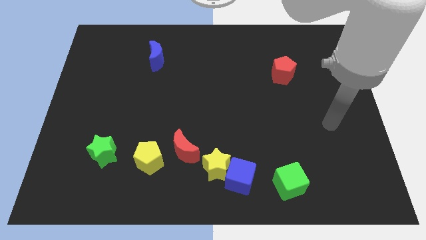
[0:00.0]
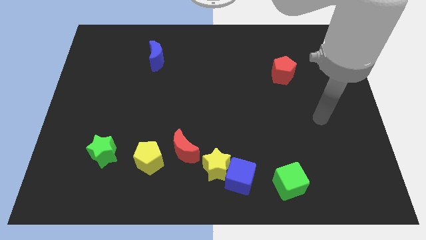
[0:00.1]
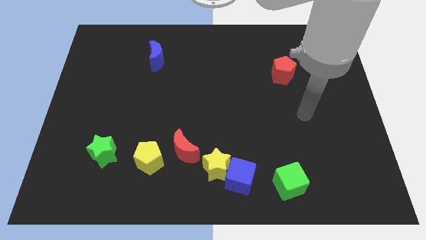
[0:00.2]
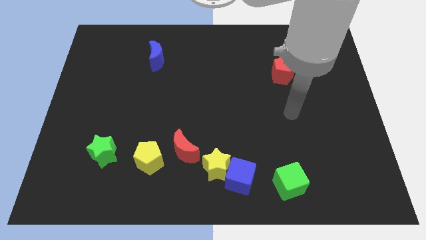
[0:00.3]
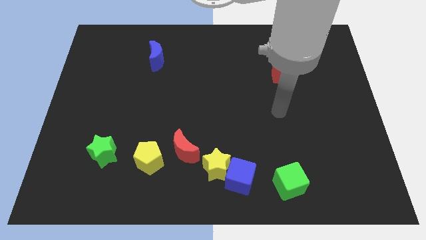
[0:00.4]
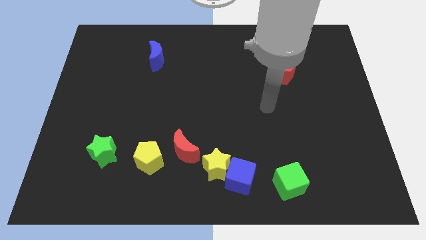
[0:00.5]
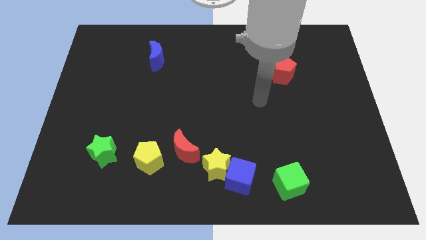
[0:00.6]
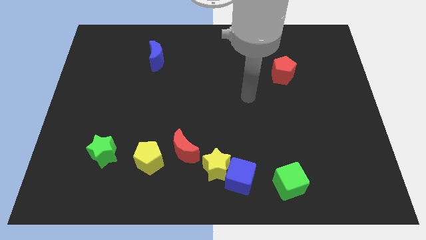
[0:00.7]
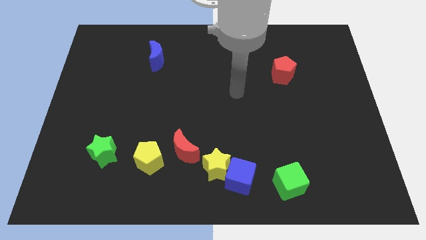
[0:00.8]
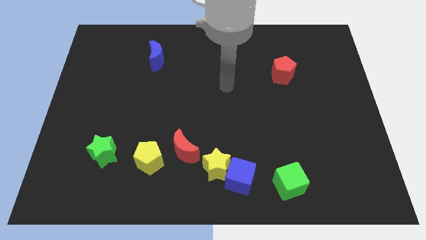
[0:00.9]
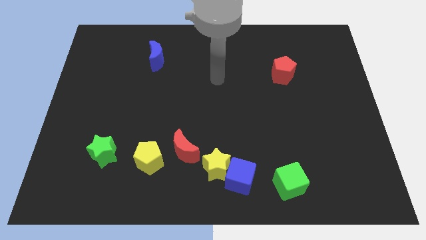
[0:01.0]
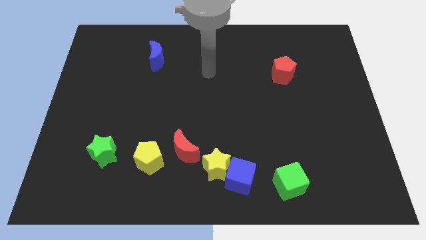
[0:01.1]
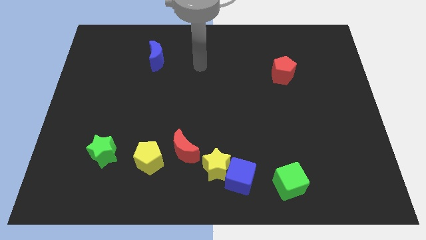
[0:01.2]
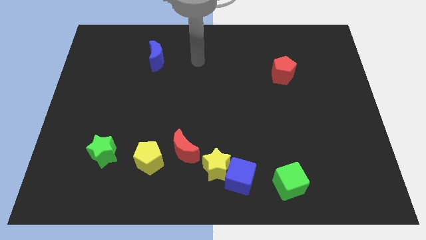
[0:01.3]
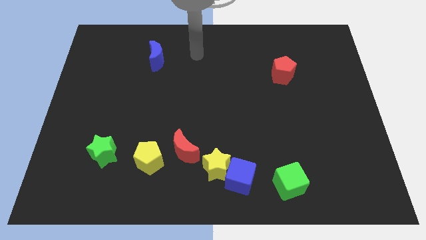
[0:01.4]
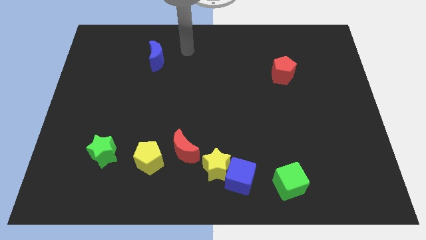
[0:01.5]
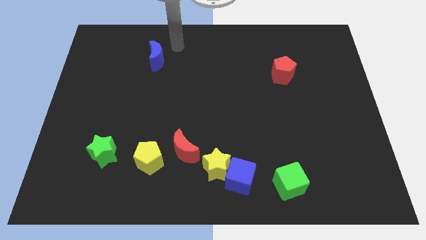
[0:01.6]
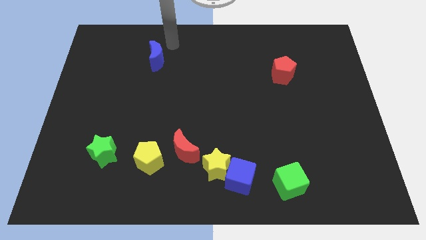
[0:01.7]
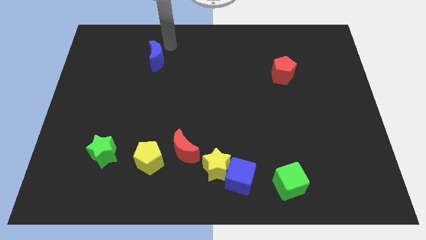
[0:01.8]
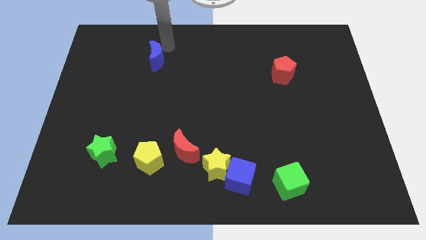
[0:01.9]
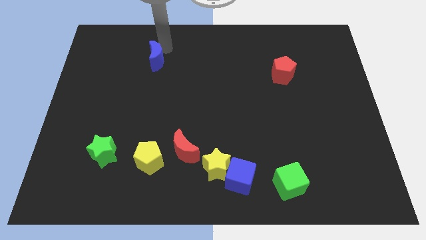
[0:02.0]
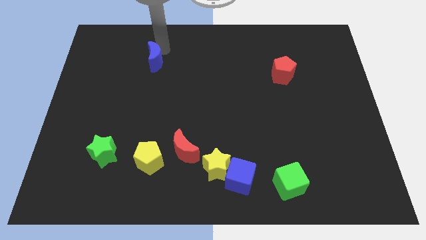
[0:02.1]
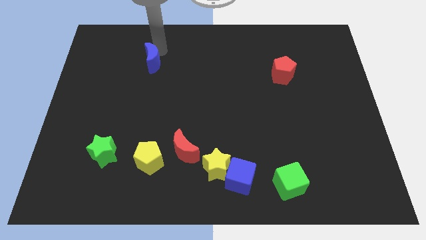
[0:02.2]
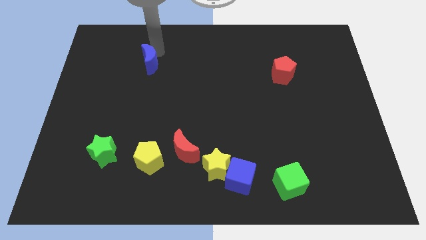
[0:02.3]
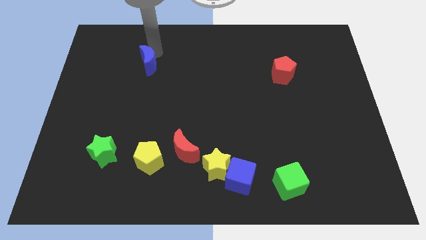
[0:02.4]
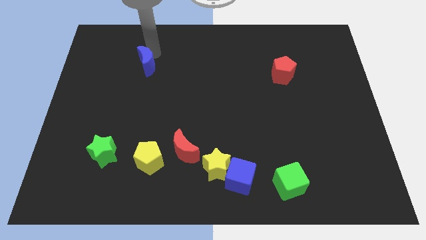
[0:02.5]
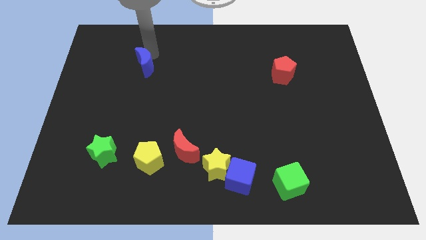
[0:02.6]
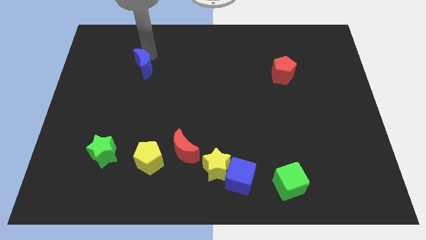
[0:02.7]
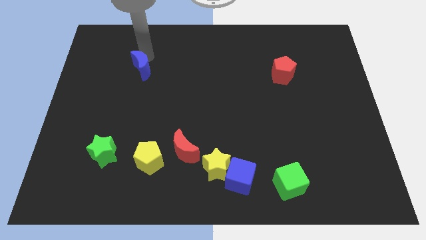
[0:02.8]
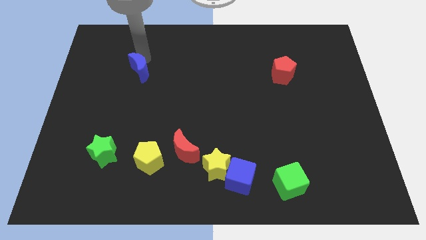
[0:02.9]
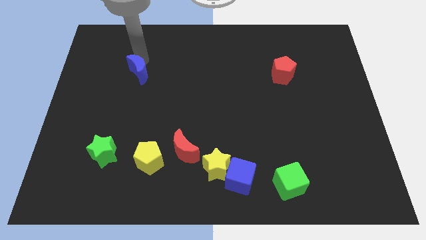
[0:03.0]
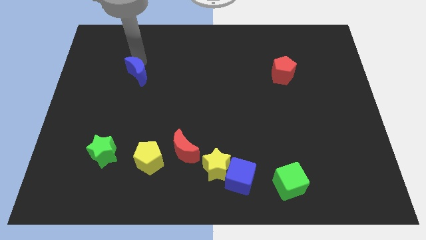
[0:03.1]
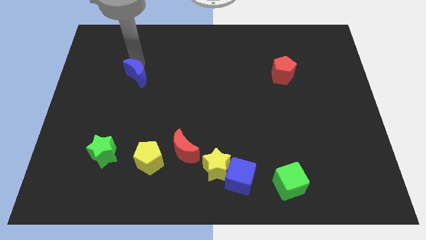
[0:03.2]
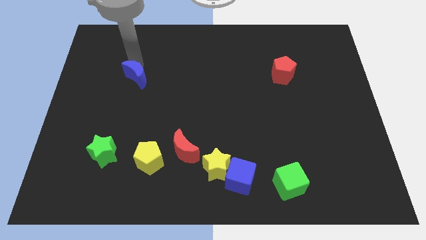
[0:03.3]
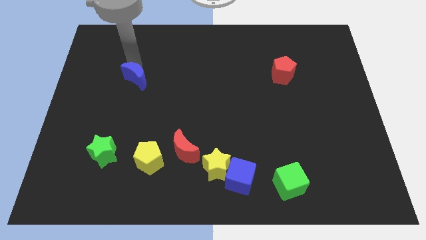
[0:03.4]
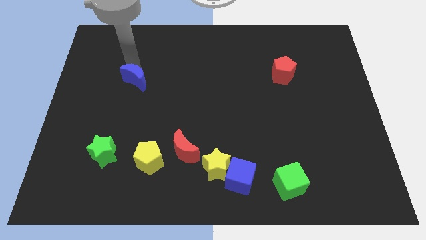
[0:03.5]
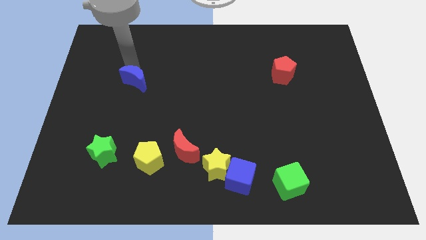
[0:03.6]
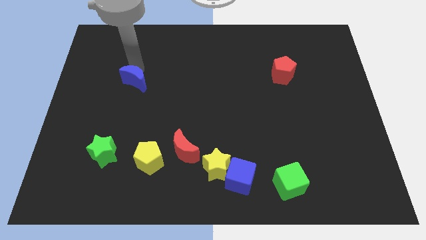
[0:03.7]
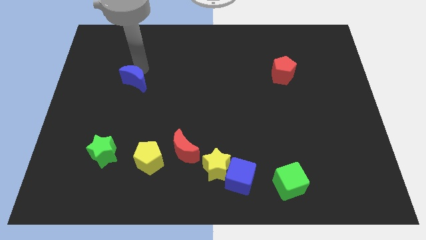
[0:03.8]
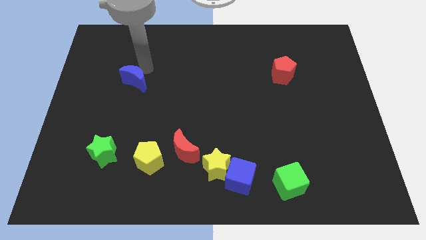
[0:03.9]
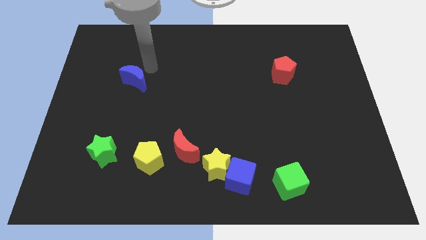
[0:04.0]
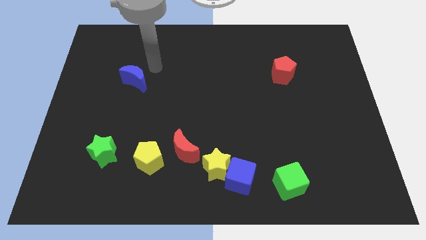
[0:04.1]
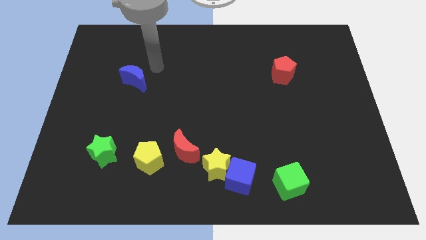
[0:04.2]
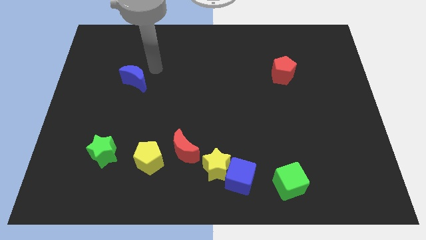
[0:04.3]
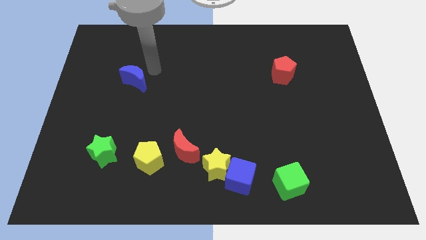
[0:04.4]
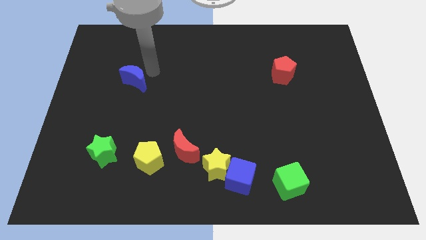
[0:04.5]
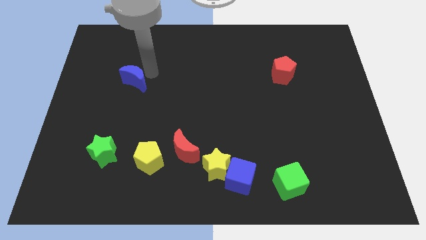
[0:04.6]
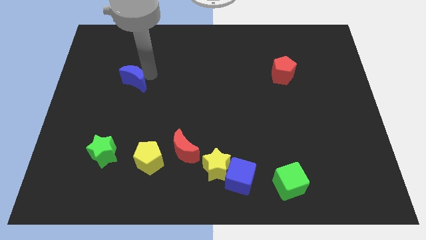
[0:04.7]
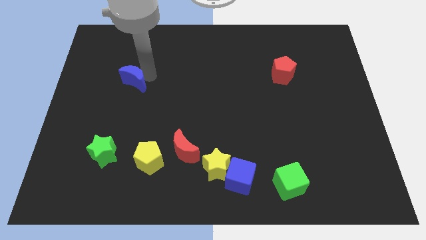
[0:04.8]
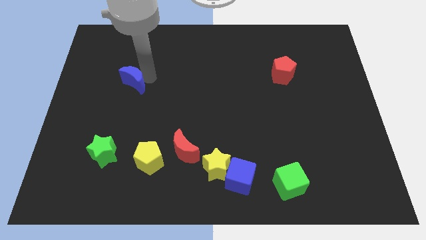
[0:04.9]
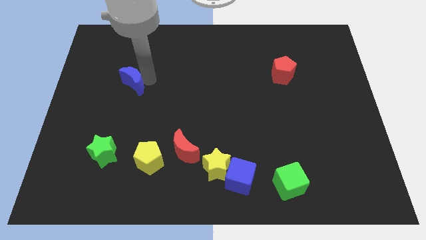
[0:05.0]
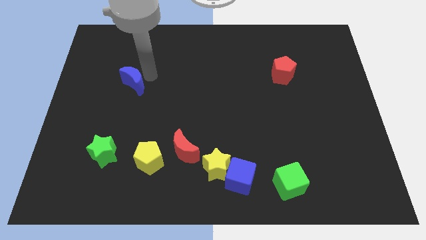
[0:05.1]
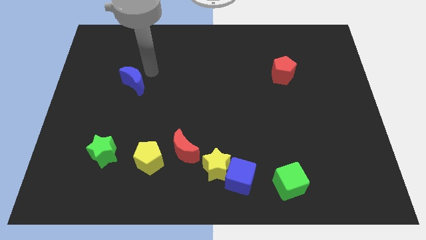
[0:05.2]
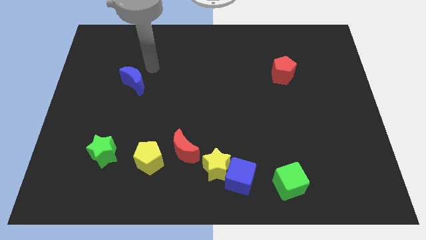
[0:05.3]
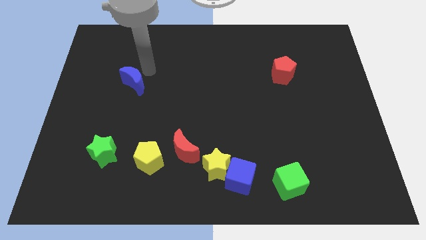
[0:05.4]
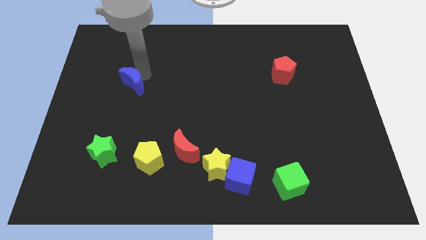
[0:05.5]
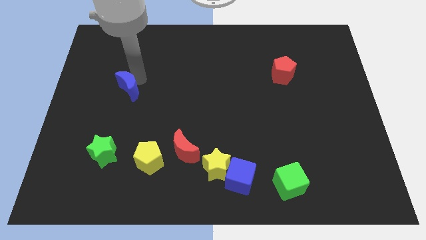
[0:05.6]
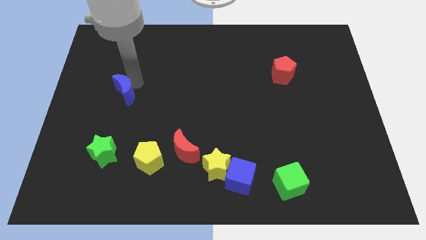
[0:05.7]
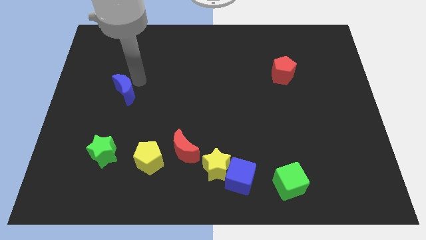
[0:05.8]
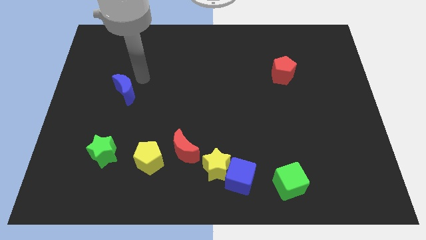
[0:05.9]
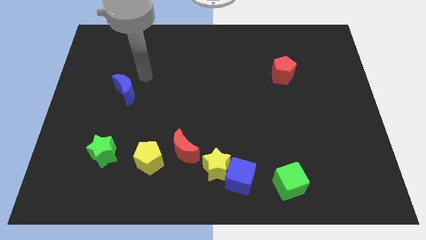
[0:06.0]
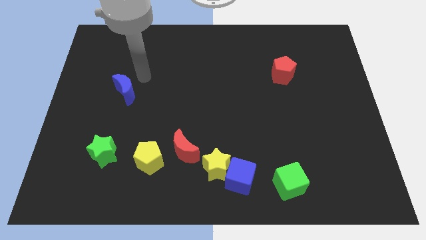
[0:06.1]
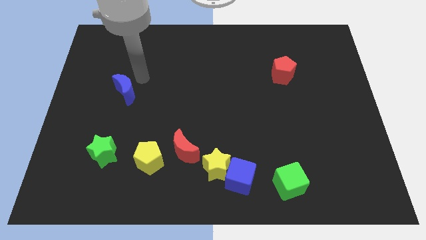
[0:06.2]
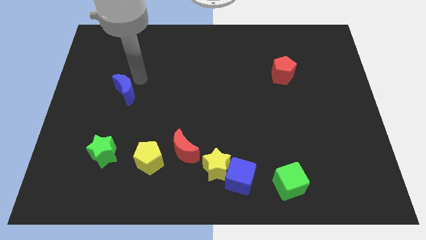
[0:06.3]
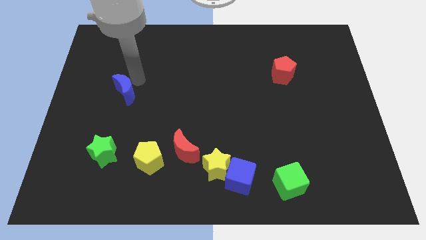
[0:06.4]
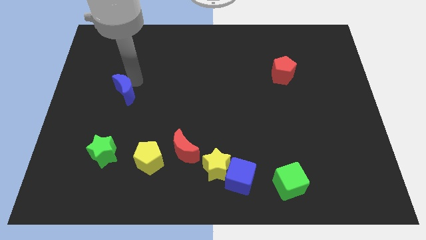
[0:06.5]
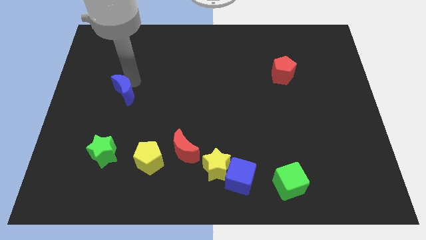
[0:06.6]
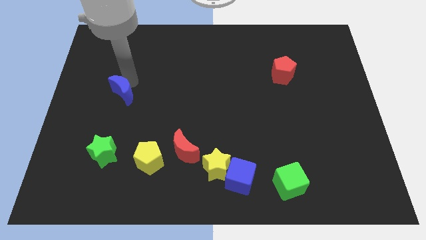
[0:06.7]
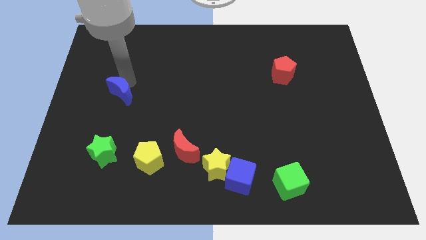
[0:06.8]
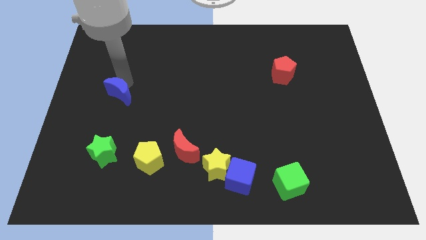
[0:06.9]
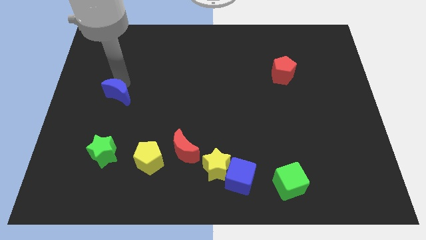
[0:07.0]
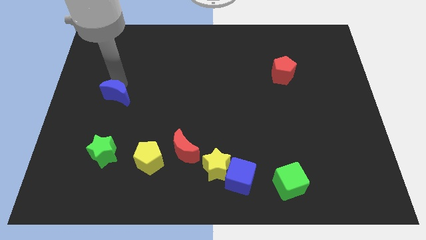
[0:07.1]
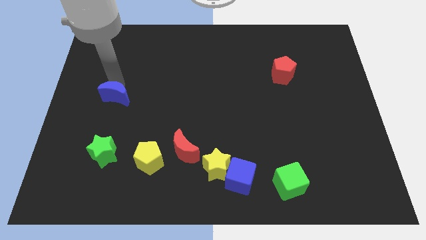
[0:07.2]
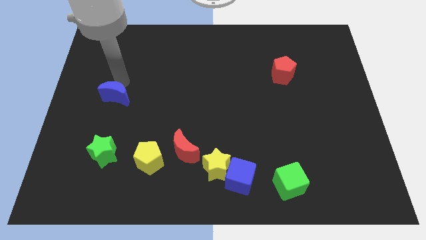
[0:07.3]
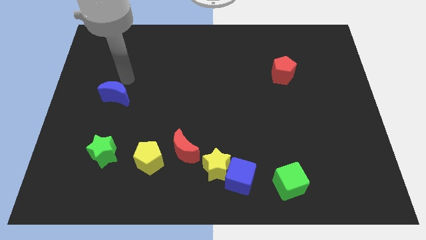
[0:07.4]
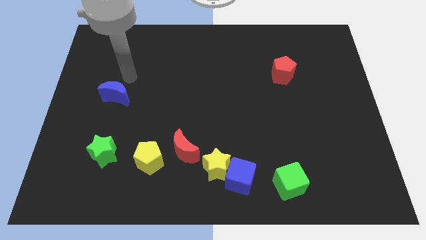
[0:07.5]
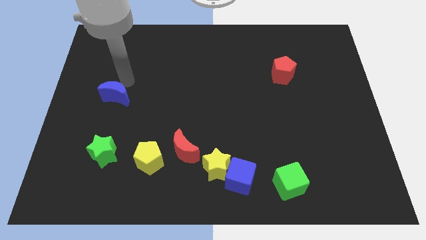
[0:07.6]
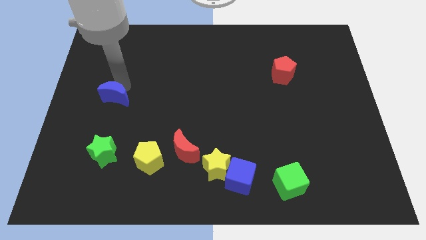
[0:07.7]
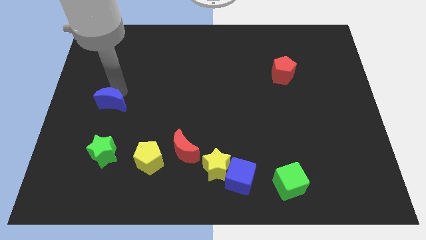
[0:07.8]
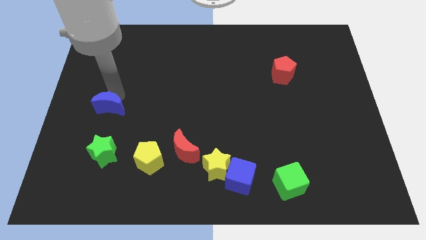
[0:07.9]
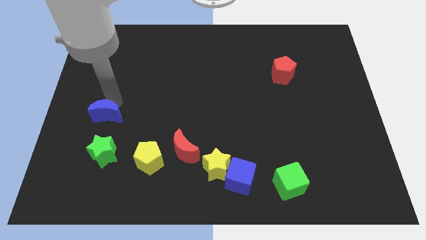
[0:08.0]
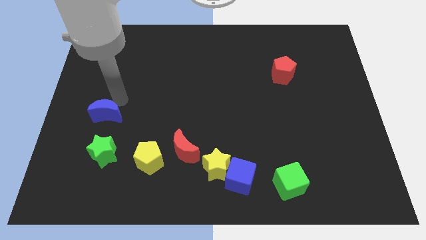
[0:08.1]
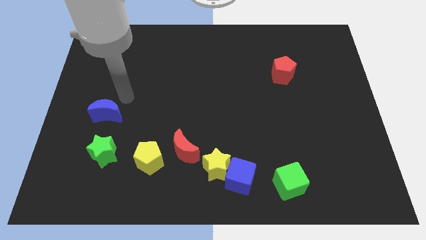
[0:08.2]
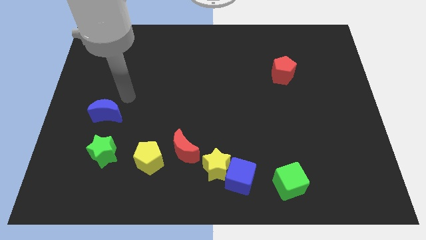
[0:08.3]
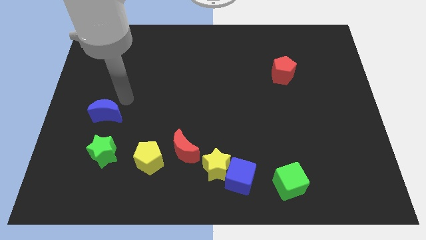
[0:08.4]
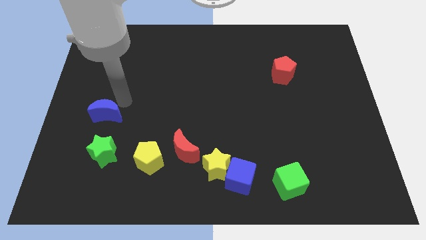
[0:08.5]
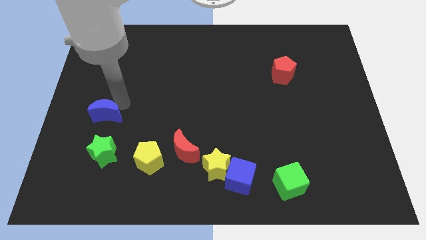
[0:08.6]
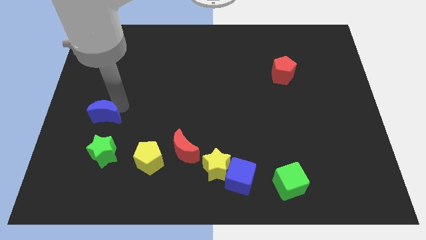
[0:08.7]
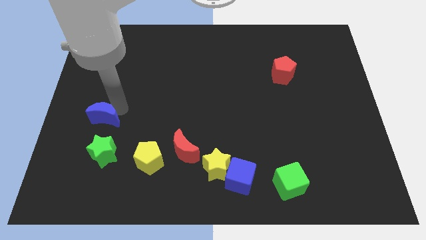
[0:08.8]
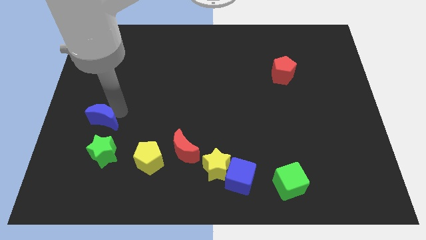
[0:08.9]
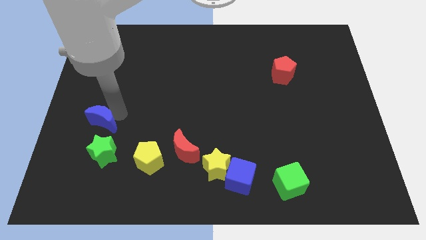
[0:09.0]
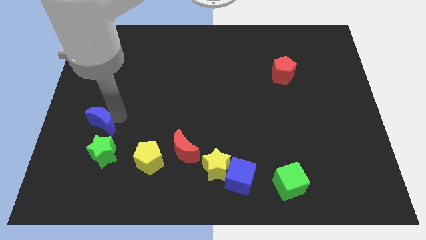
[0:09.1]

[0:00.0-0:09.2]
put the blue moon to the top left side of the green star
